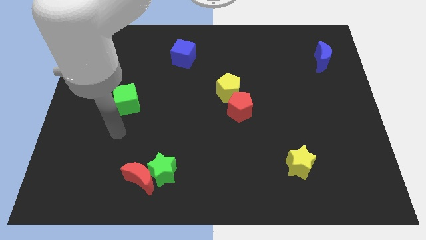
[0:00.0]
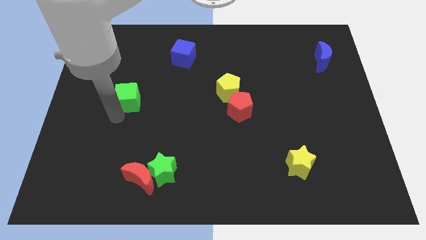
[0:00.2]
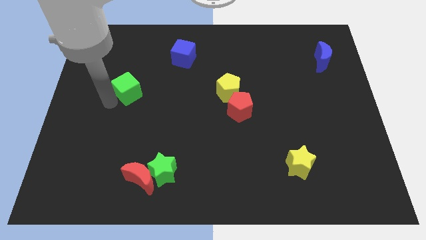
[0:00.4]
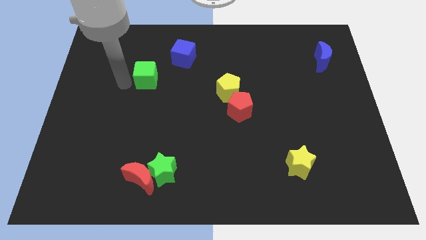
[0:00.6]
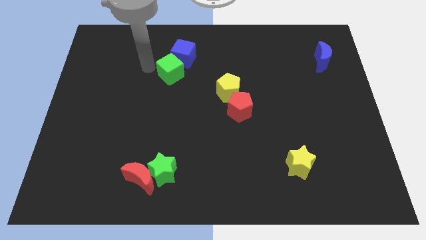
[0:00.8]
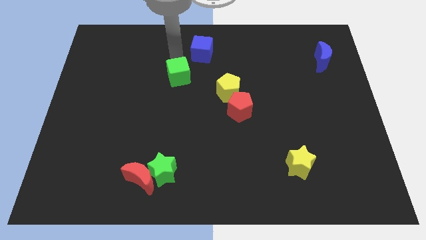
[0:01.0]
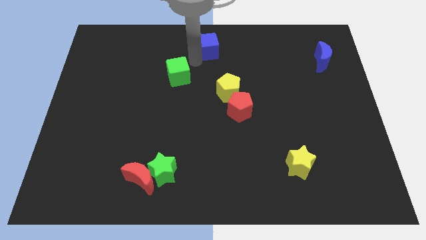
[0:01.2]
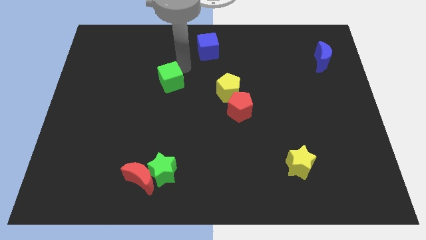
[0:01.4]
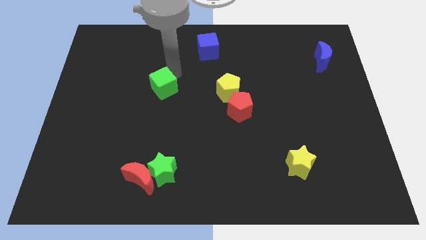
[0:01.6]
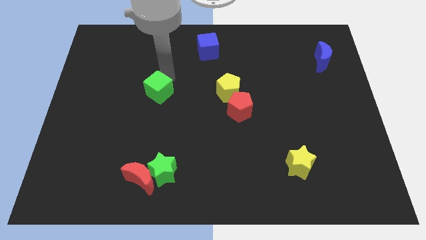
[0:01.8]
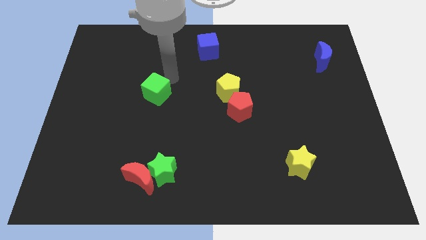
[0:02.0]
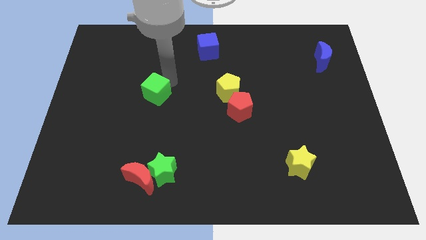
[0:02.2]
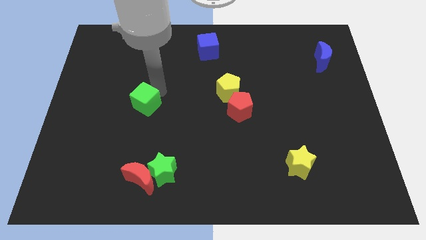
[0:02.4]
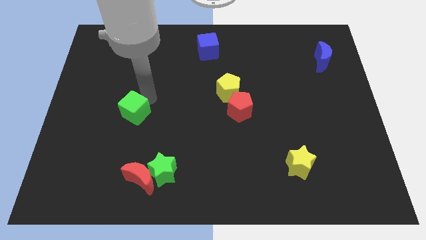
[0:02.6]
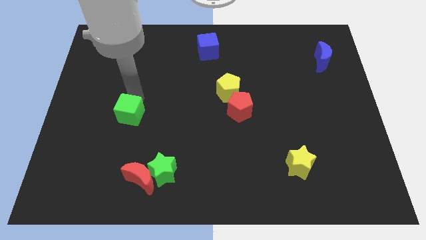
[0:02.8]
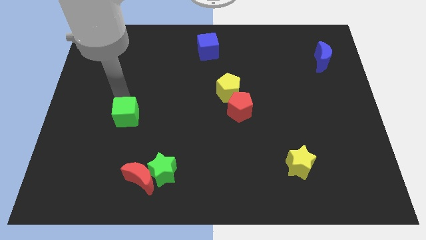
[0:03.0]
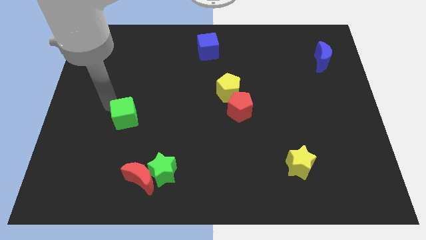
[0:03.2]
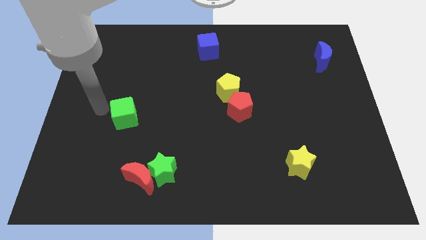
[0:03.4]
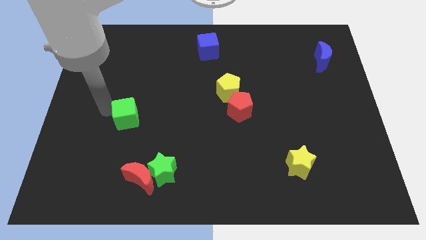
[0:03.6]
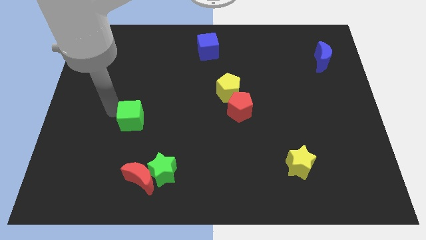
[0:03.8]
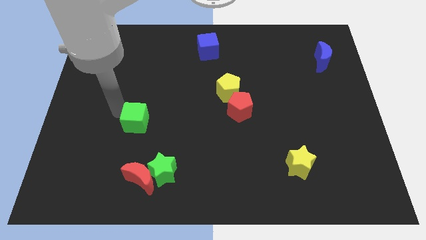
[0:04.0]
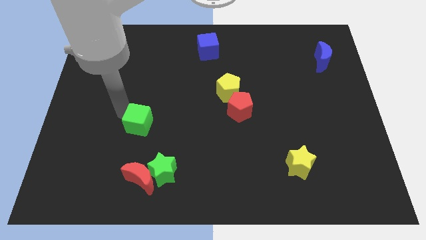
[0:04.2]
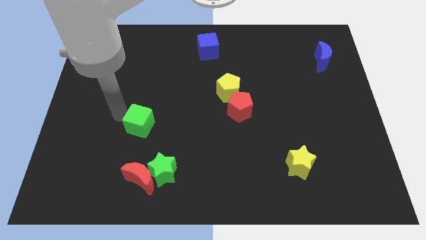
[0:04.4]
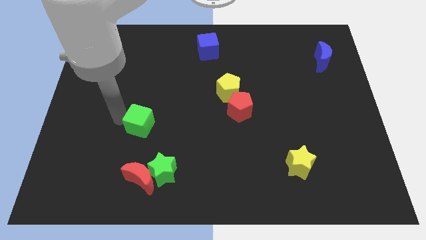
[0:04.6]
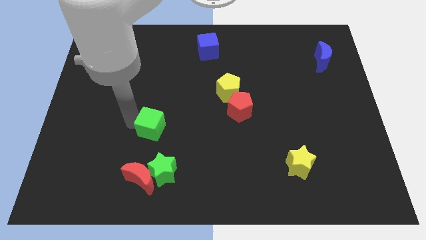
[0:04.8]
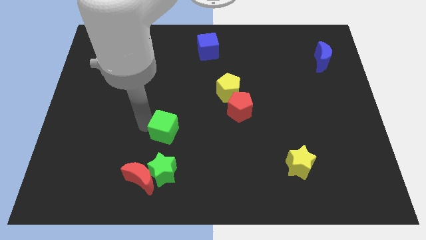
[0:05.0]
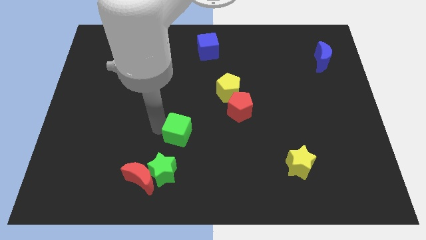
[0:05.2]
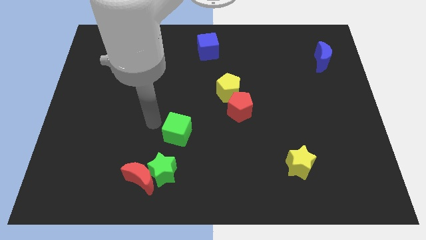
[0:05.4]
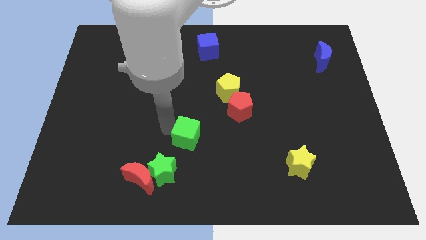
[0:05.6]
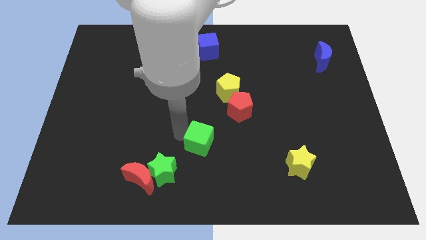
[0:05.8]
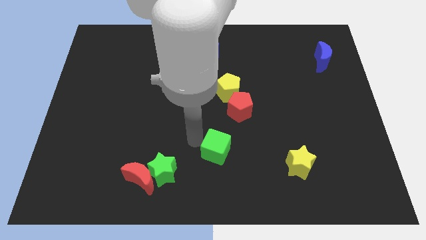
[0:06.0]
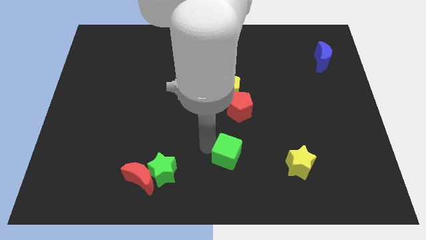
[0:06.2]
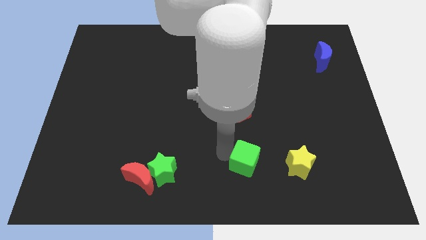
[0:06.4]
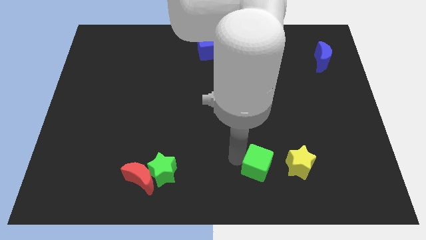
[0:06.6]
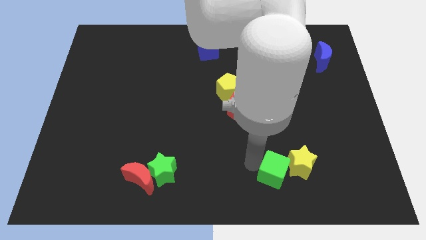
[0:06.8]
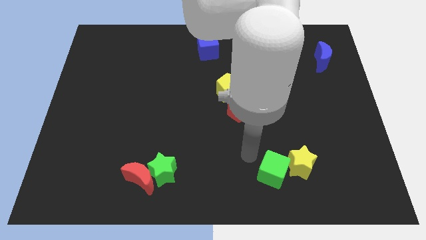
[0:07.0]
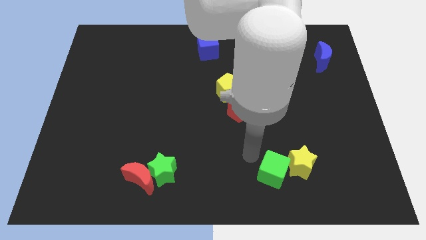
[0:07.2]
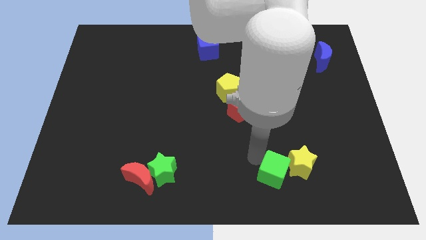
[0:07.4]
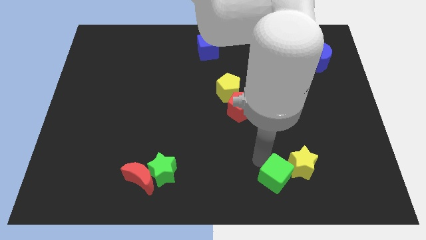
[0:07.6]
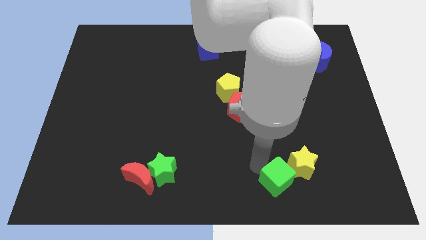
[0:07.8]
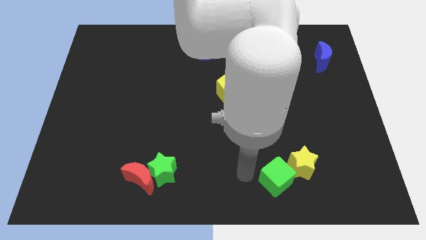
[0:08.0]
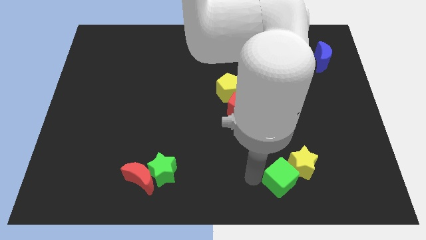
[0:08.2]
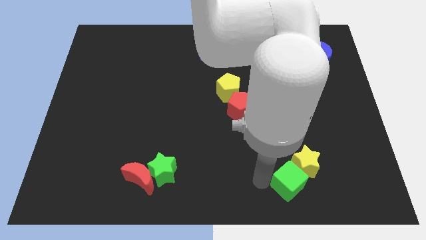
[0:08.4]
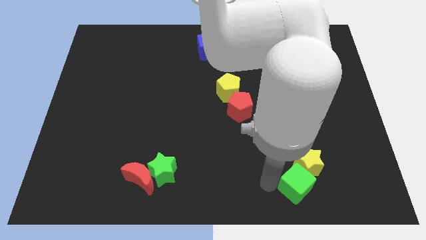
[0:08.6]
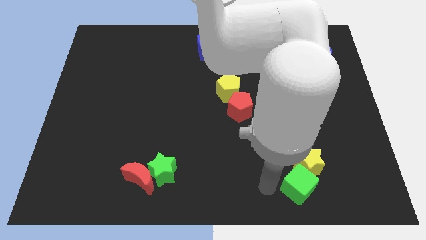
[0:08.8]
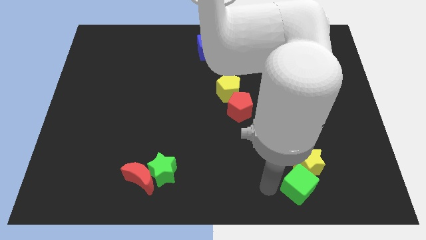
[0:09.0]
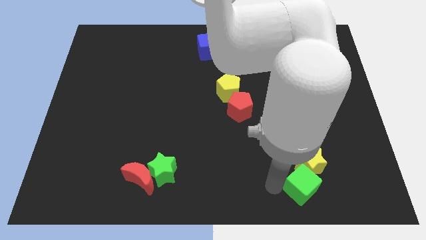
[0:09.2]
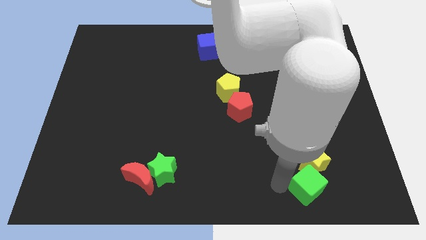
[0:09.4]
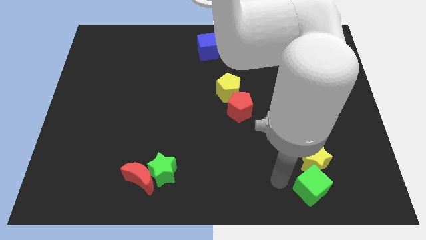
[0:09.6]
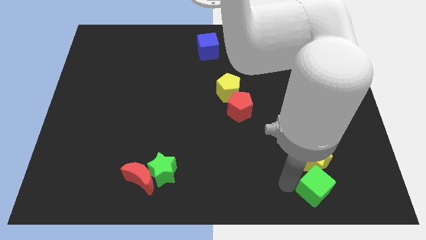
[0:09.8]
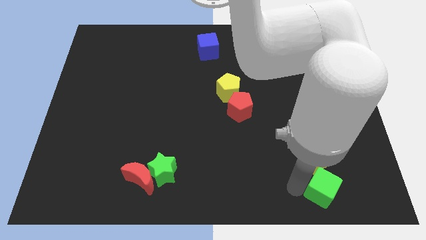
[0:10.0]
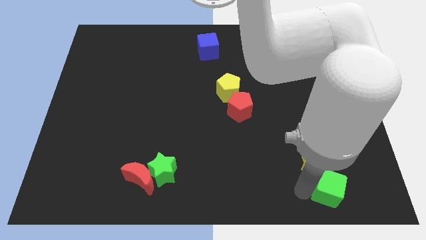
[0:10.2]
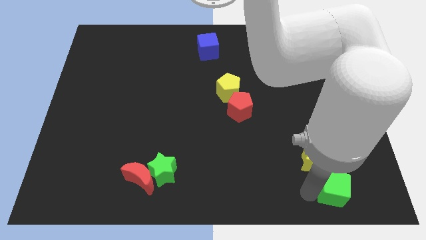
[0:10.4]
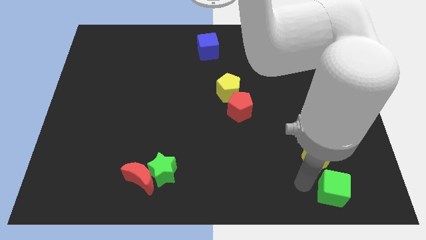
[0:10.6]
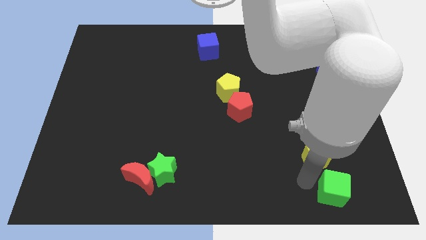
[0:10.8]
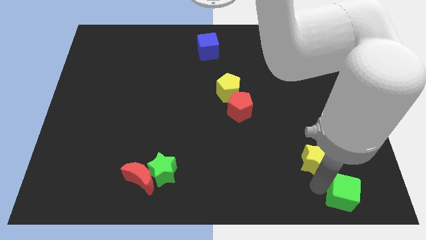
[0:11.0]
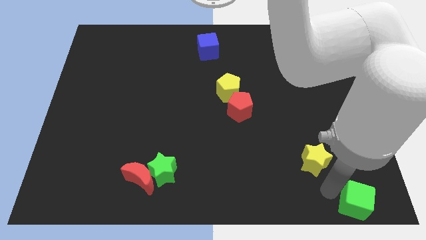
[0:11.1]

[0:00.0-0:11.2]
put the green cube to the bottom right of the board

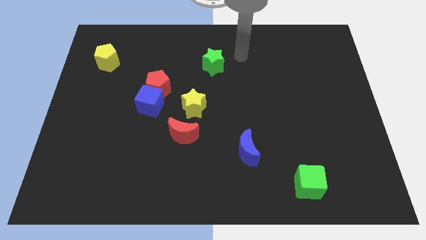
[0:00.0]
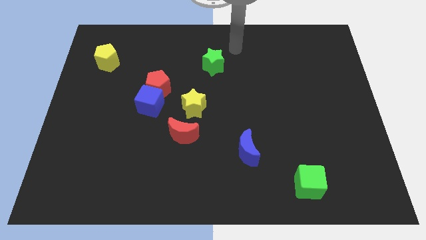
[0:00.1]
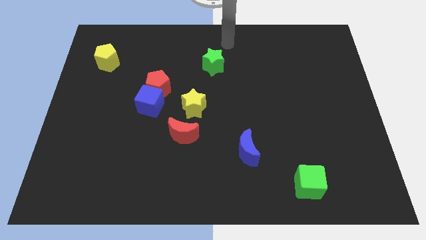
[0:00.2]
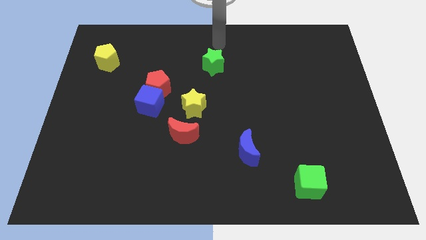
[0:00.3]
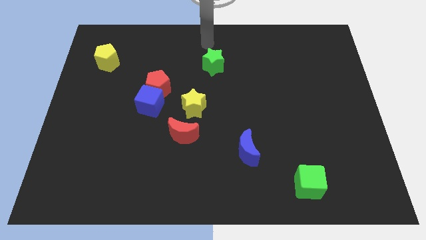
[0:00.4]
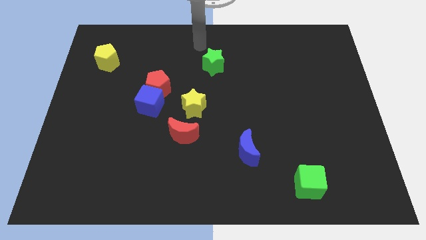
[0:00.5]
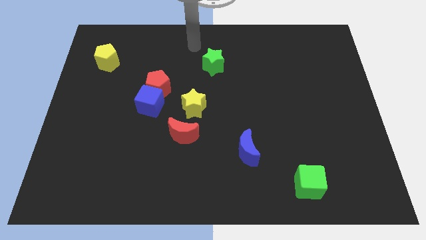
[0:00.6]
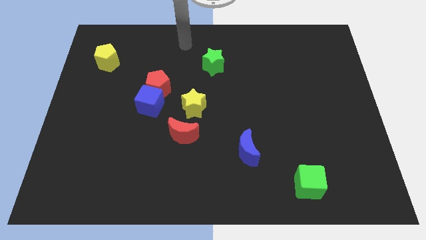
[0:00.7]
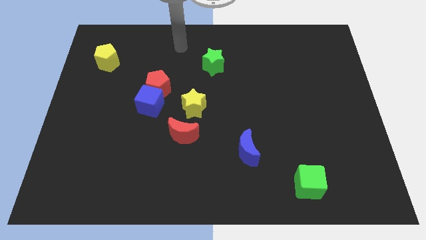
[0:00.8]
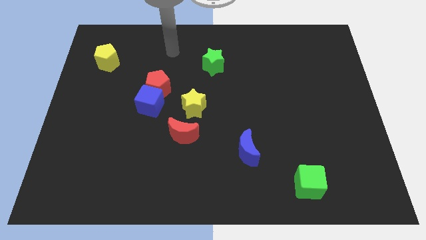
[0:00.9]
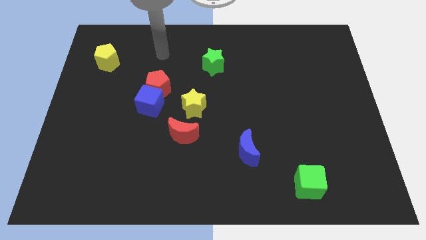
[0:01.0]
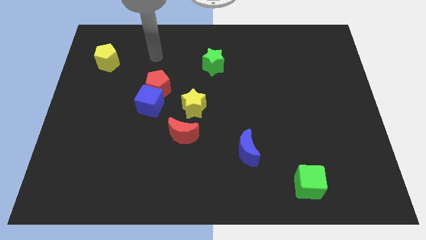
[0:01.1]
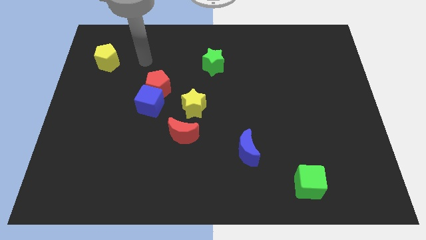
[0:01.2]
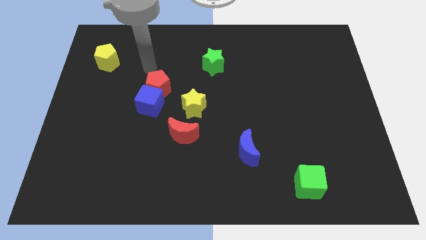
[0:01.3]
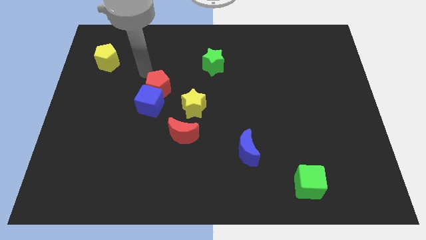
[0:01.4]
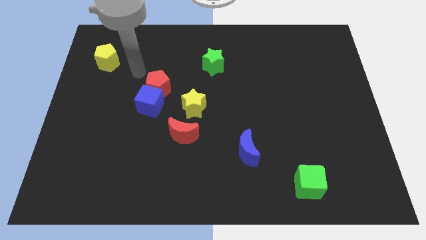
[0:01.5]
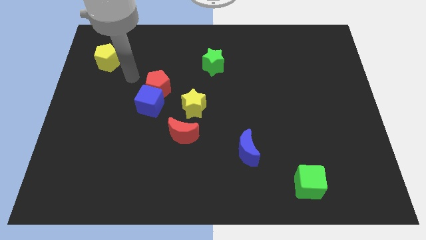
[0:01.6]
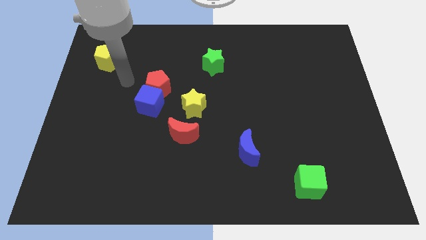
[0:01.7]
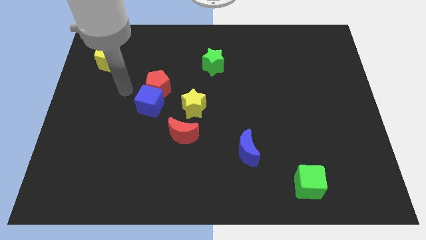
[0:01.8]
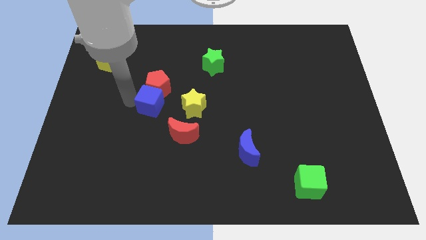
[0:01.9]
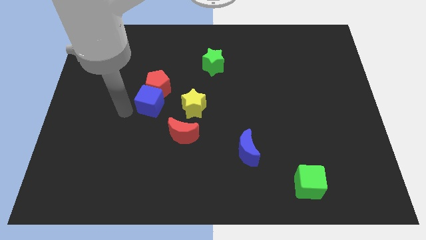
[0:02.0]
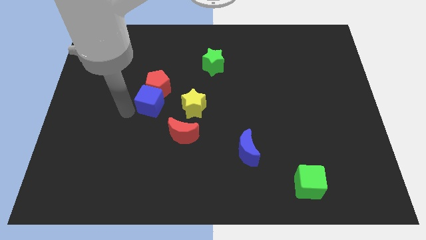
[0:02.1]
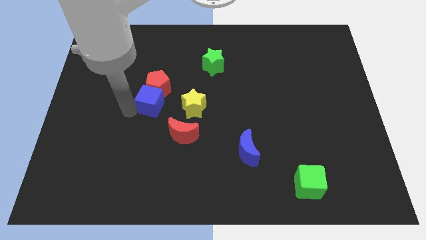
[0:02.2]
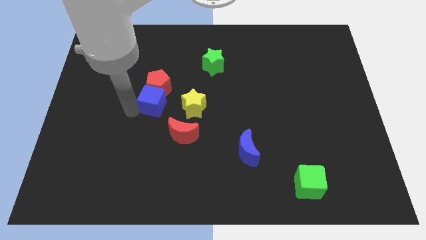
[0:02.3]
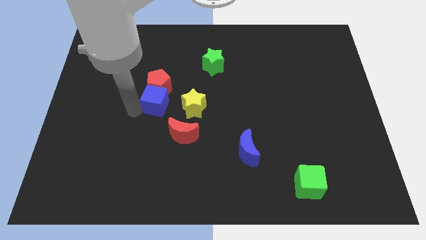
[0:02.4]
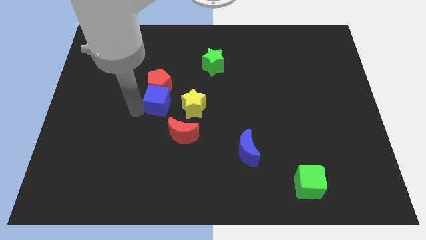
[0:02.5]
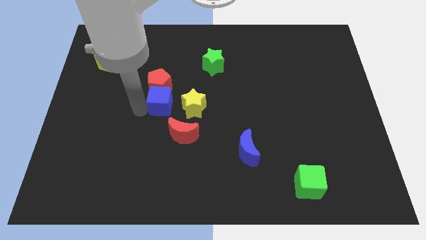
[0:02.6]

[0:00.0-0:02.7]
move the blue cube to the middle
